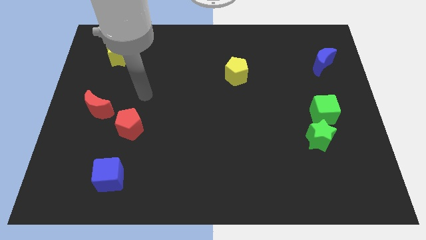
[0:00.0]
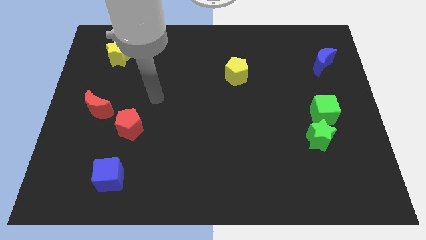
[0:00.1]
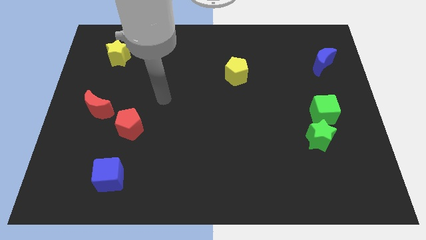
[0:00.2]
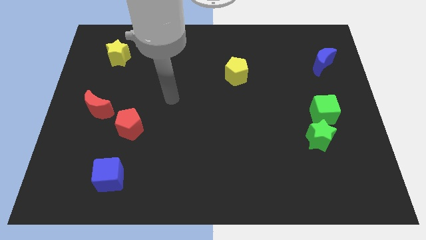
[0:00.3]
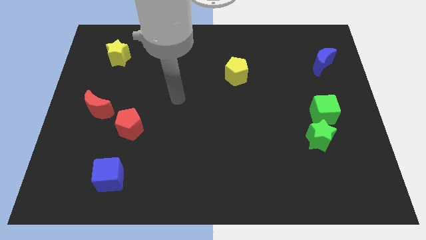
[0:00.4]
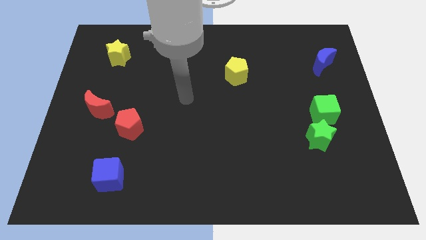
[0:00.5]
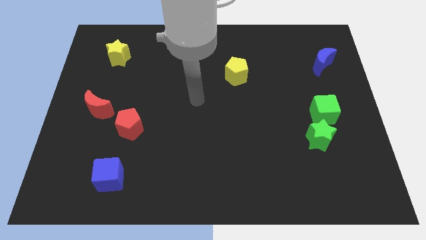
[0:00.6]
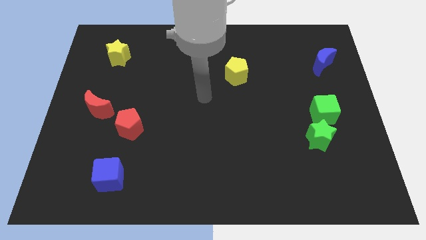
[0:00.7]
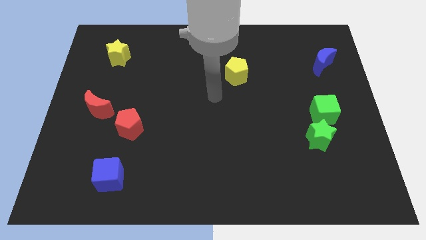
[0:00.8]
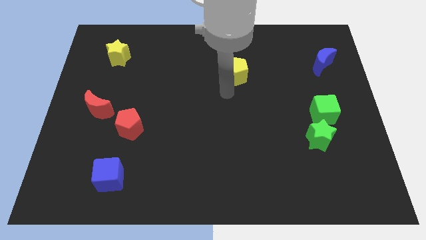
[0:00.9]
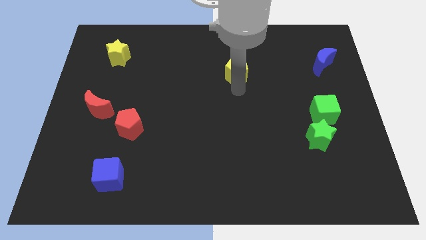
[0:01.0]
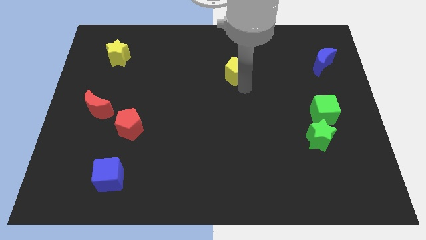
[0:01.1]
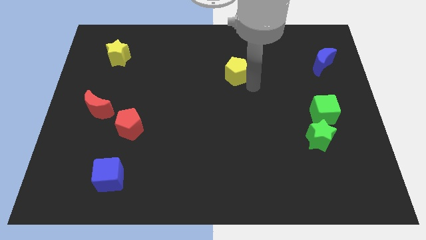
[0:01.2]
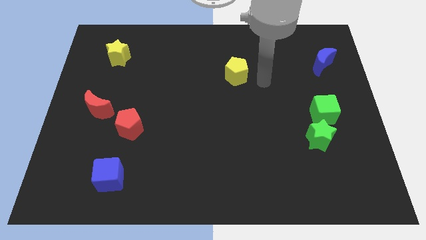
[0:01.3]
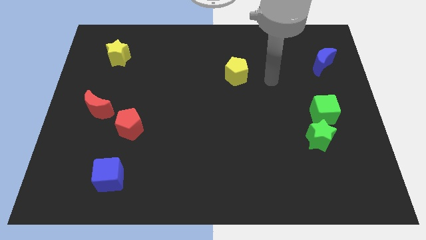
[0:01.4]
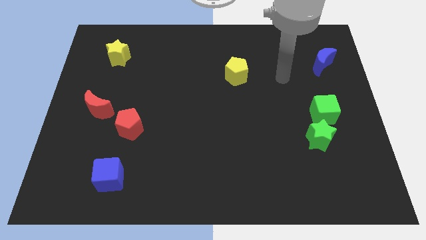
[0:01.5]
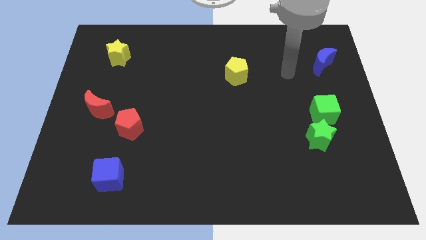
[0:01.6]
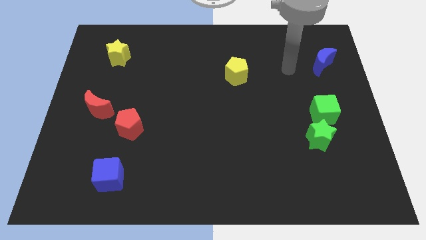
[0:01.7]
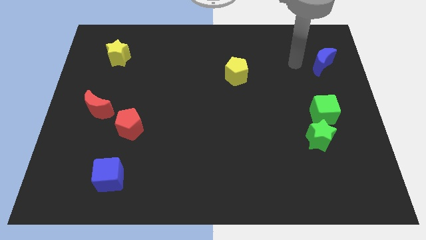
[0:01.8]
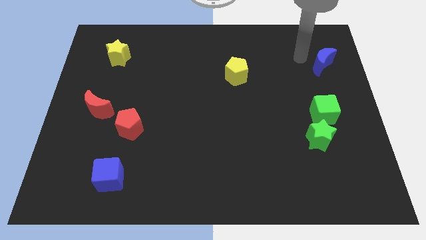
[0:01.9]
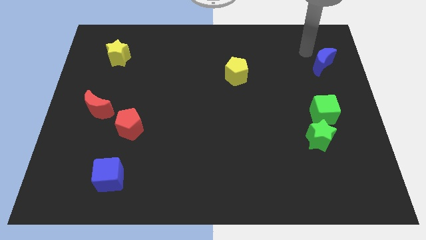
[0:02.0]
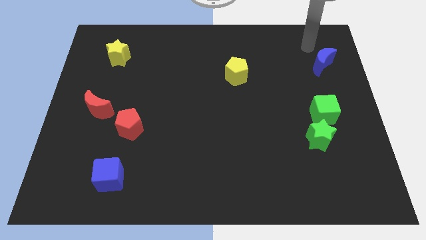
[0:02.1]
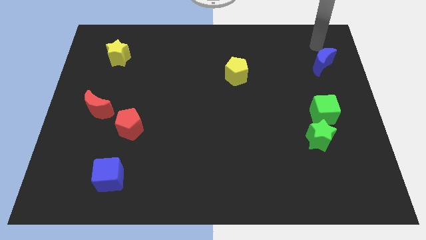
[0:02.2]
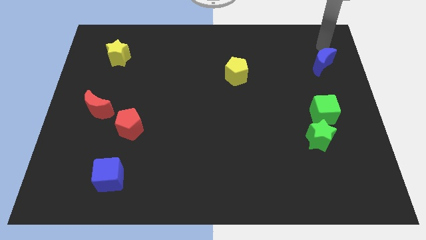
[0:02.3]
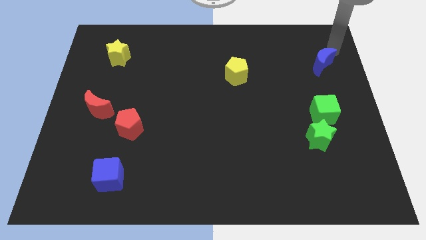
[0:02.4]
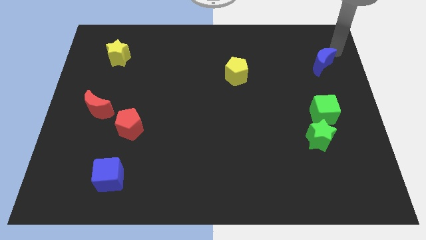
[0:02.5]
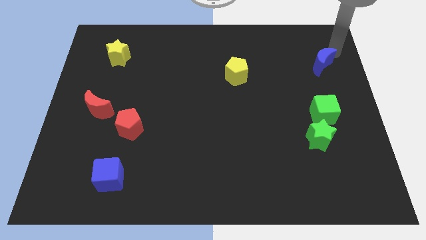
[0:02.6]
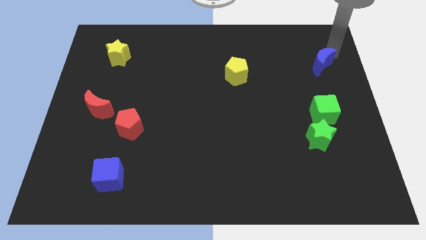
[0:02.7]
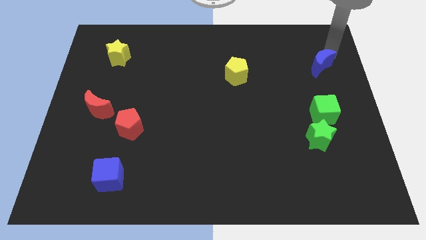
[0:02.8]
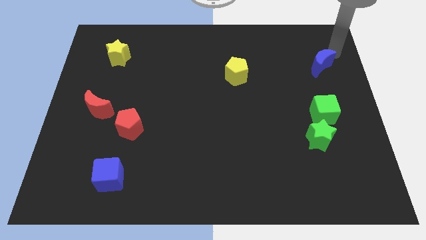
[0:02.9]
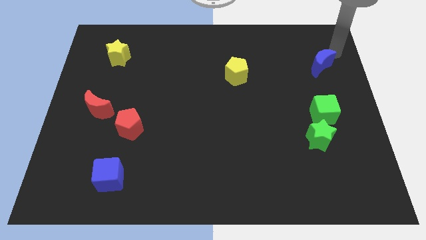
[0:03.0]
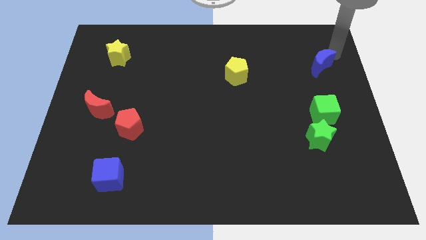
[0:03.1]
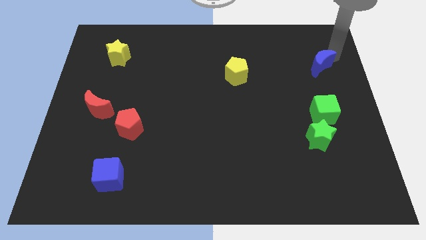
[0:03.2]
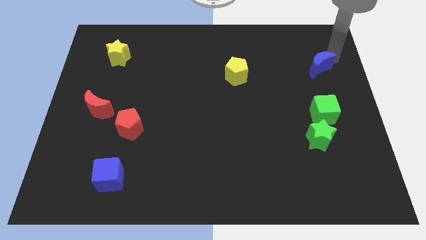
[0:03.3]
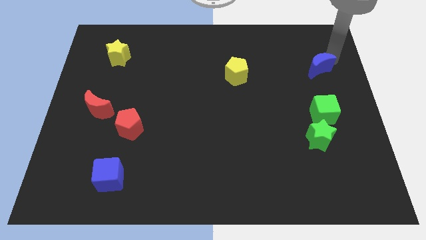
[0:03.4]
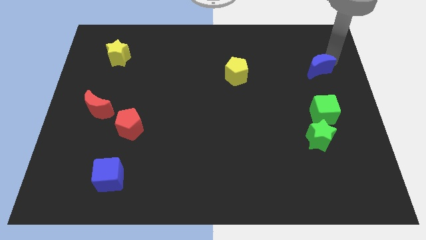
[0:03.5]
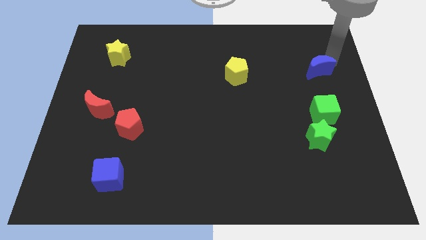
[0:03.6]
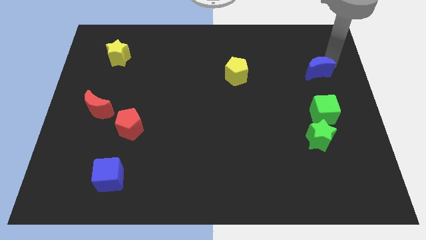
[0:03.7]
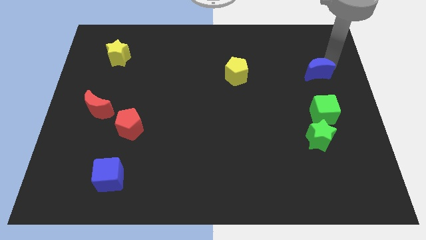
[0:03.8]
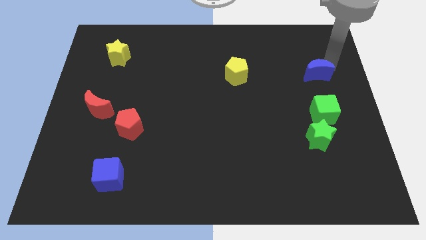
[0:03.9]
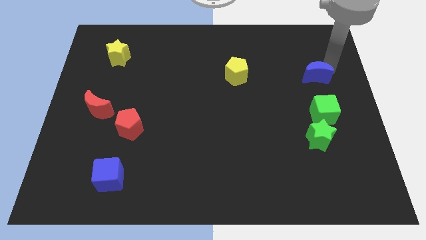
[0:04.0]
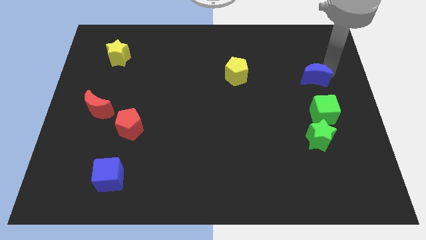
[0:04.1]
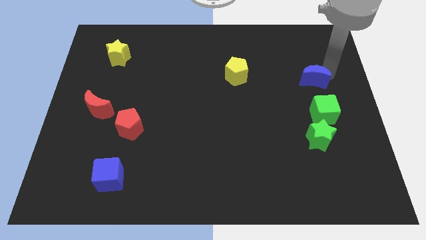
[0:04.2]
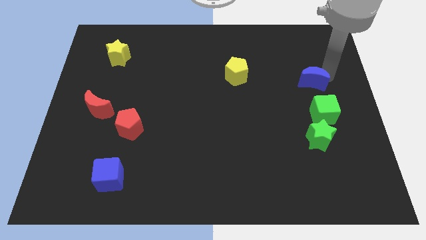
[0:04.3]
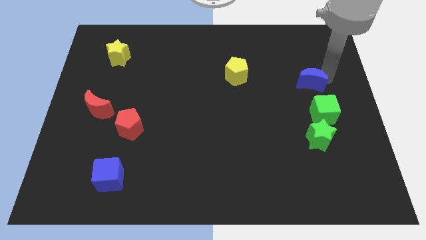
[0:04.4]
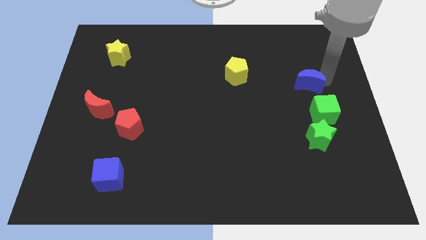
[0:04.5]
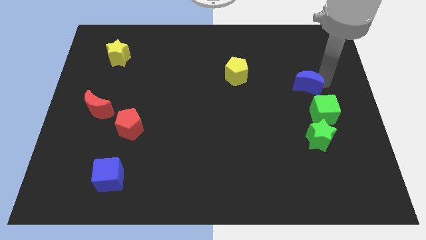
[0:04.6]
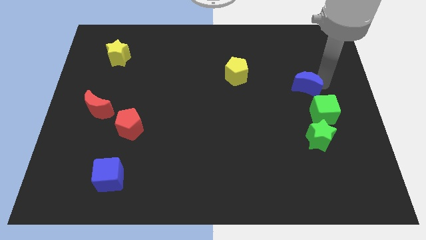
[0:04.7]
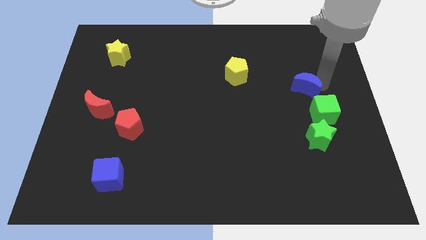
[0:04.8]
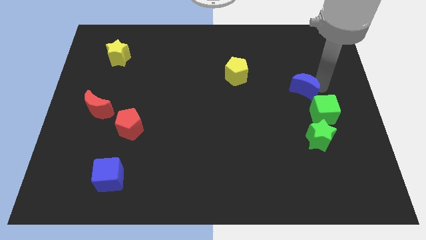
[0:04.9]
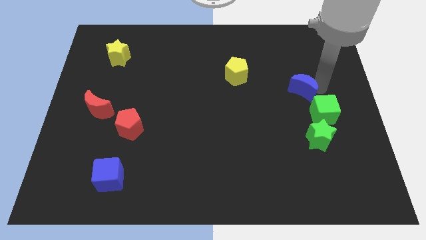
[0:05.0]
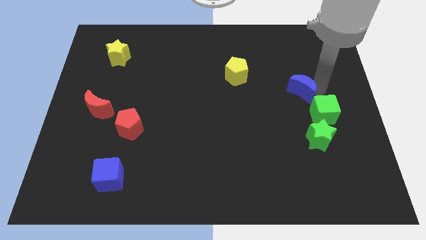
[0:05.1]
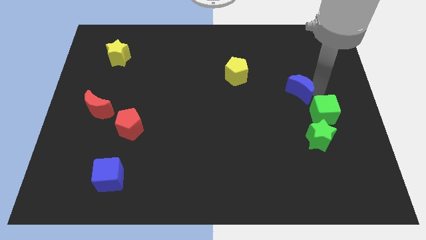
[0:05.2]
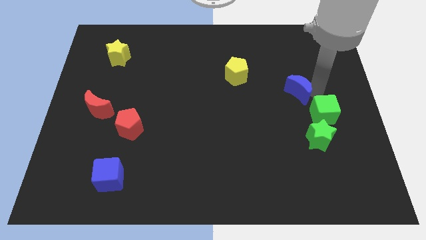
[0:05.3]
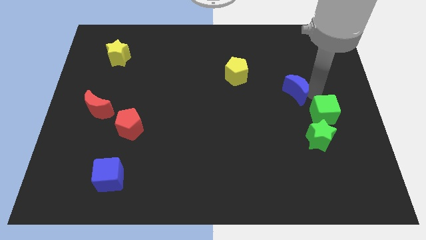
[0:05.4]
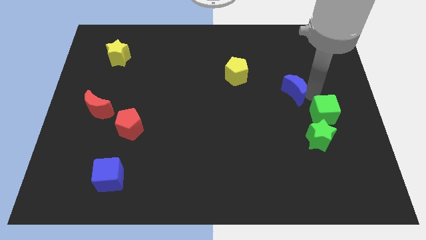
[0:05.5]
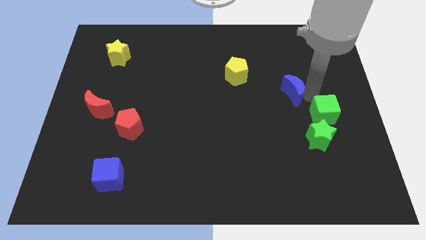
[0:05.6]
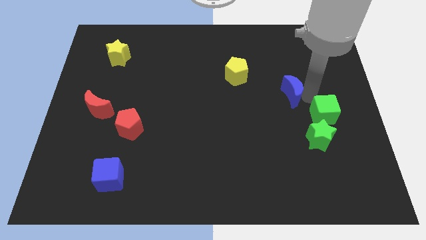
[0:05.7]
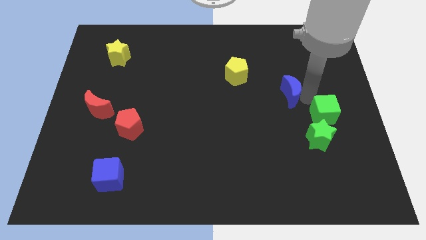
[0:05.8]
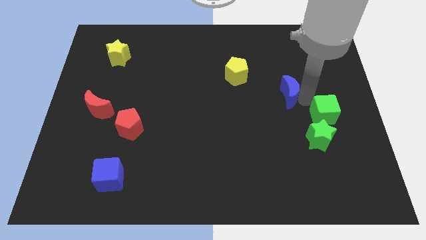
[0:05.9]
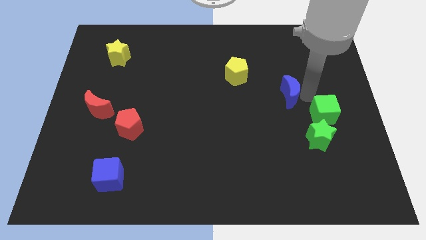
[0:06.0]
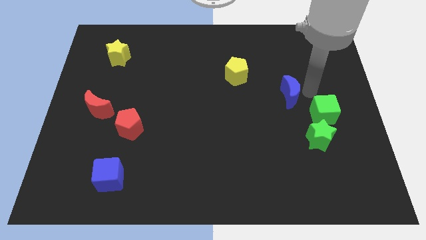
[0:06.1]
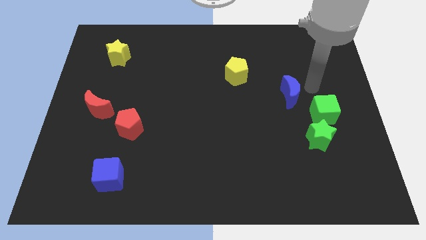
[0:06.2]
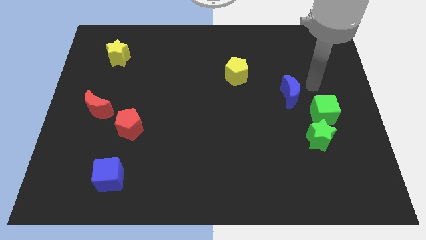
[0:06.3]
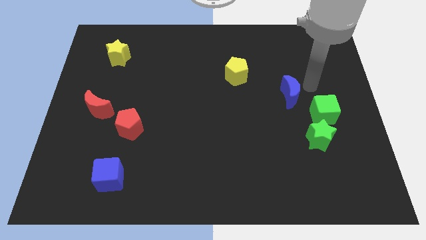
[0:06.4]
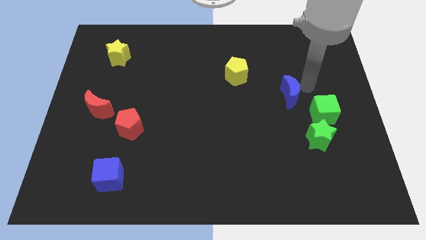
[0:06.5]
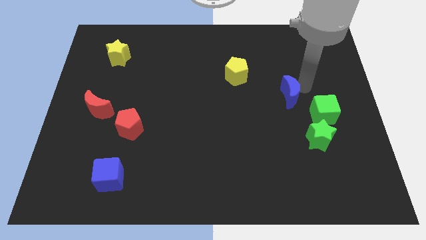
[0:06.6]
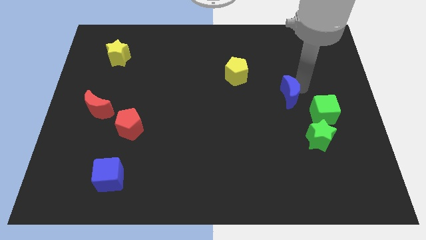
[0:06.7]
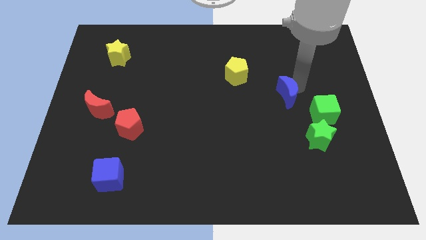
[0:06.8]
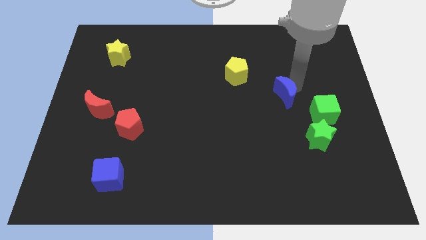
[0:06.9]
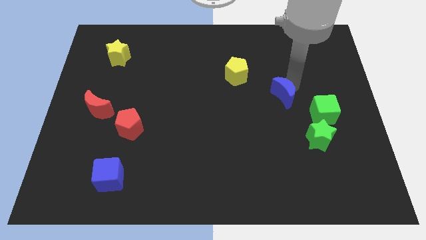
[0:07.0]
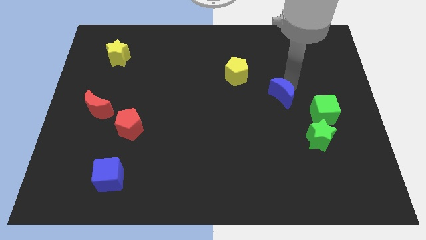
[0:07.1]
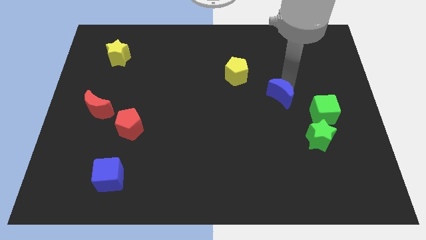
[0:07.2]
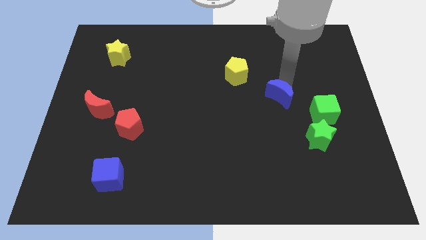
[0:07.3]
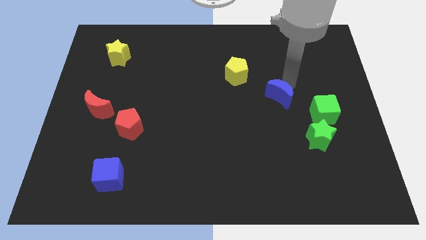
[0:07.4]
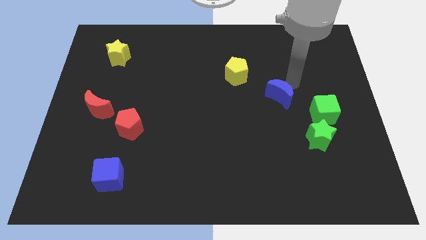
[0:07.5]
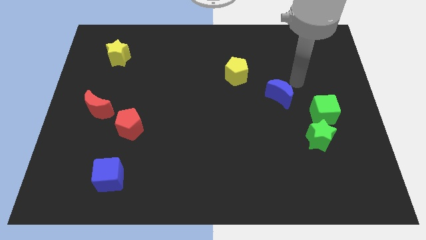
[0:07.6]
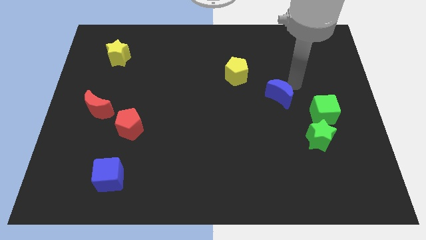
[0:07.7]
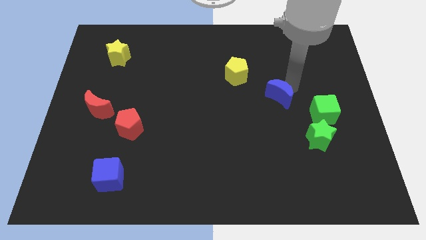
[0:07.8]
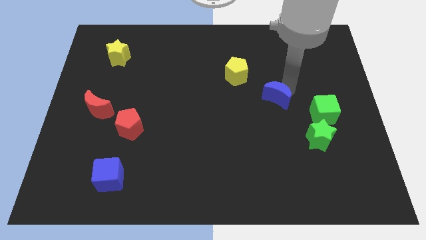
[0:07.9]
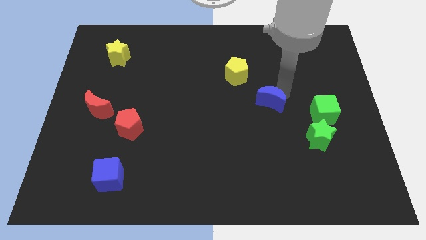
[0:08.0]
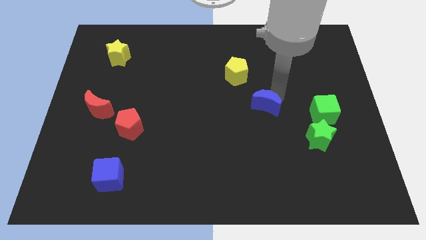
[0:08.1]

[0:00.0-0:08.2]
move the blue moon downwards and to the left diagonally
